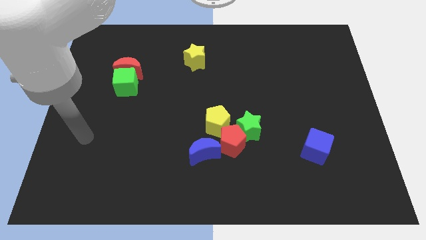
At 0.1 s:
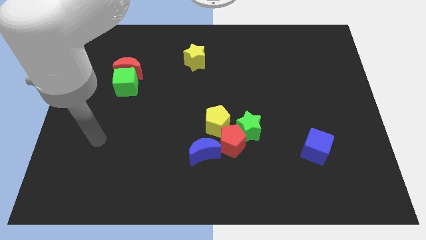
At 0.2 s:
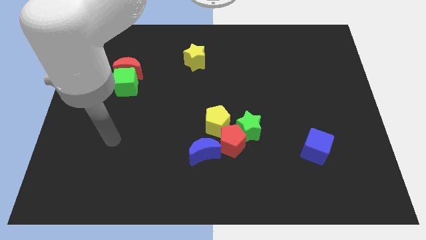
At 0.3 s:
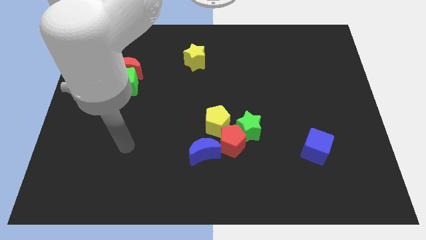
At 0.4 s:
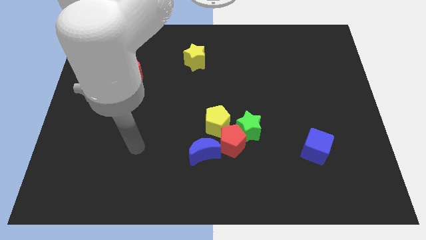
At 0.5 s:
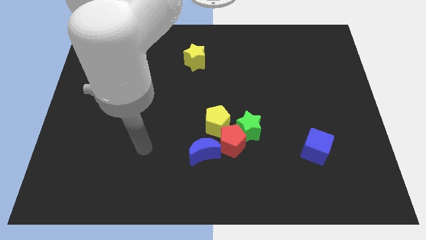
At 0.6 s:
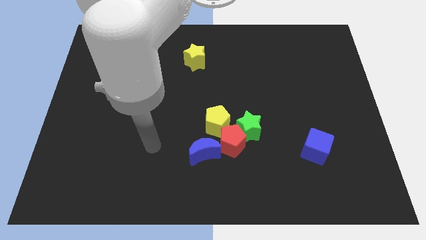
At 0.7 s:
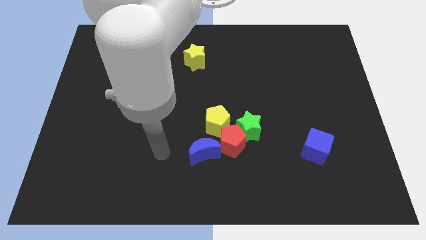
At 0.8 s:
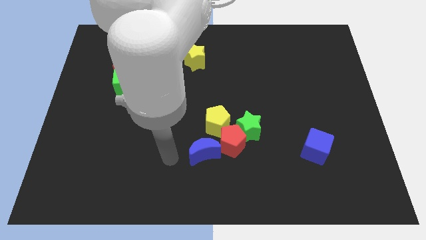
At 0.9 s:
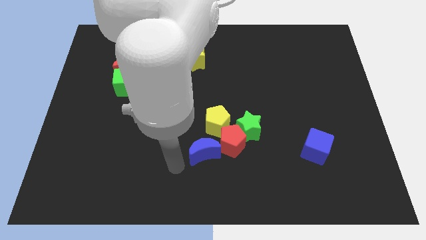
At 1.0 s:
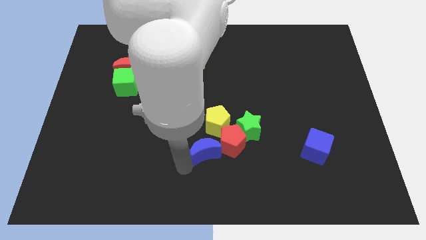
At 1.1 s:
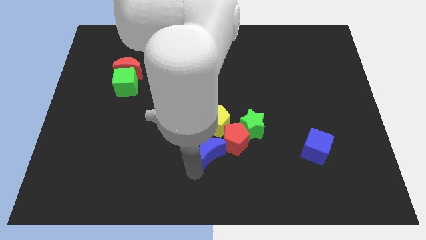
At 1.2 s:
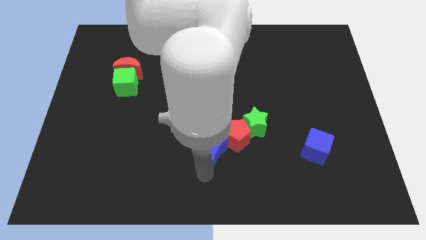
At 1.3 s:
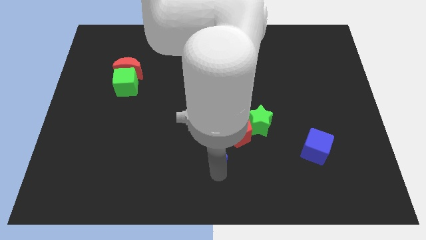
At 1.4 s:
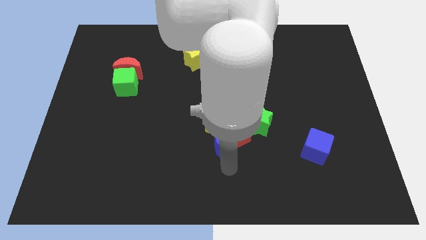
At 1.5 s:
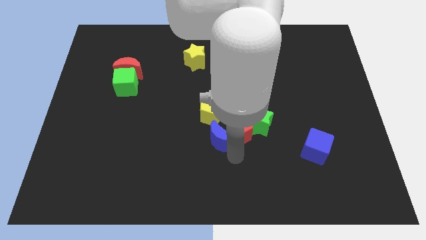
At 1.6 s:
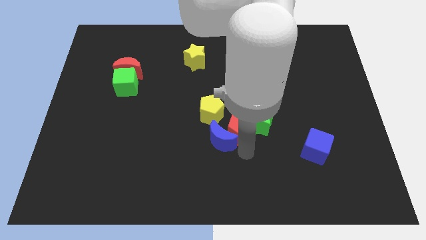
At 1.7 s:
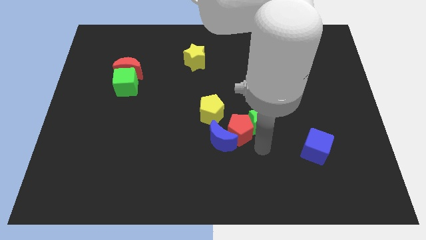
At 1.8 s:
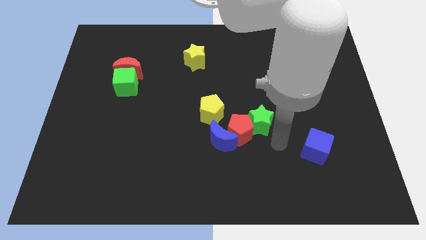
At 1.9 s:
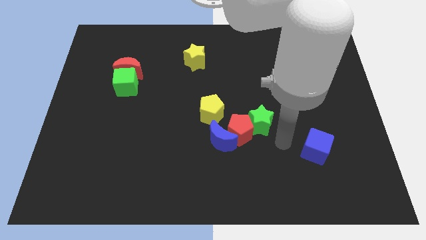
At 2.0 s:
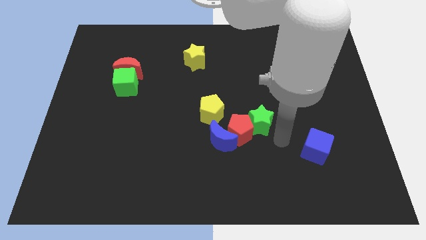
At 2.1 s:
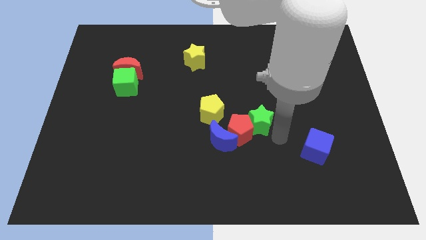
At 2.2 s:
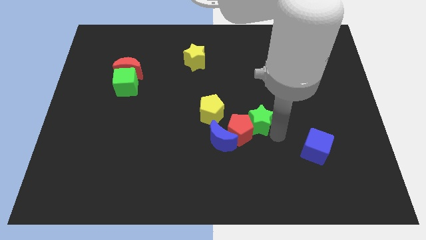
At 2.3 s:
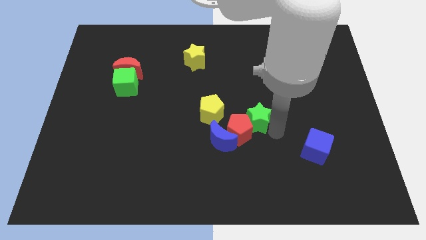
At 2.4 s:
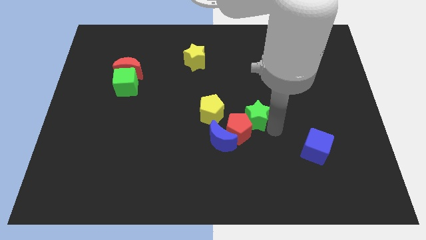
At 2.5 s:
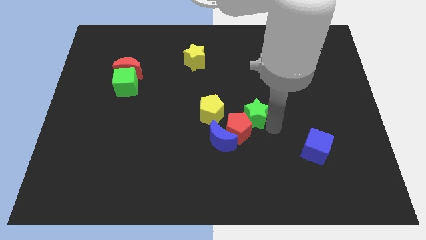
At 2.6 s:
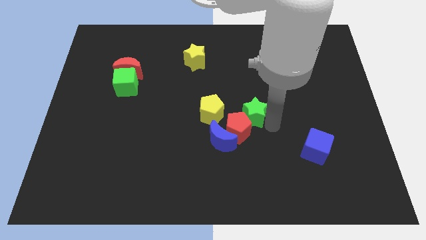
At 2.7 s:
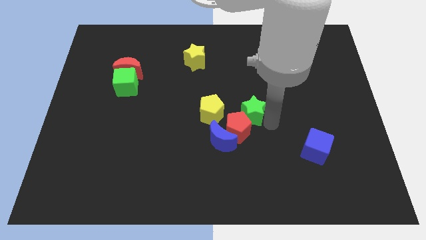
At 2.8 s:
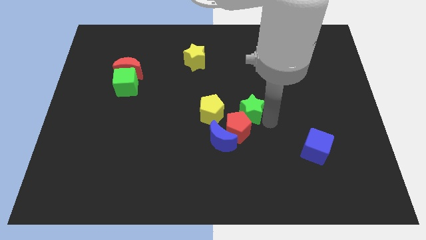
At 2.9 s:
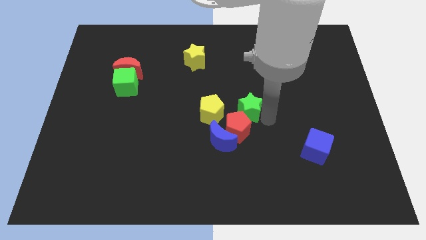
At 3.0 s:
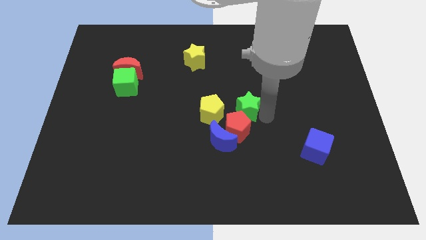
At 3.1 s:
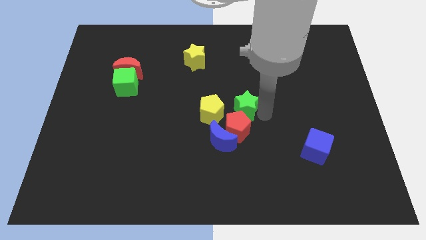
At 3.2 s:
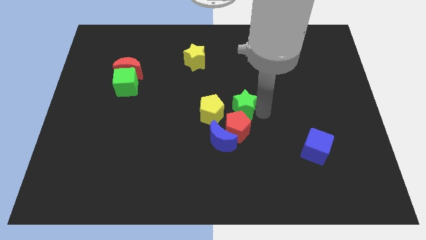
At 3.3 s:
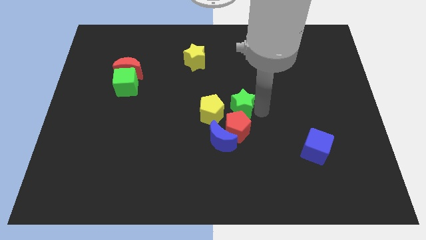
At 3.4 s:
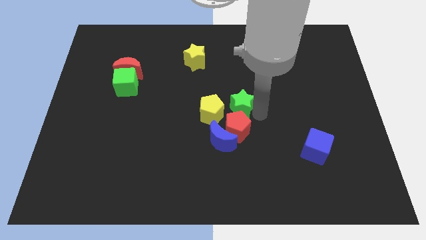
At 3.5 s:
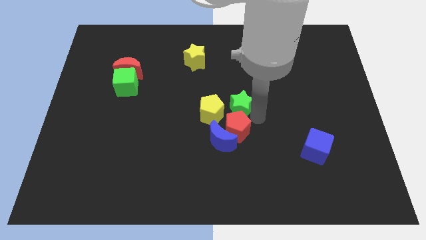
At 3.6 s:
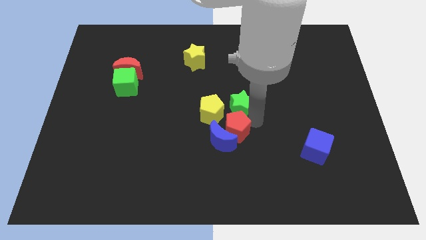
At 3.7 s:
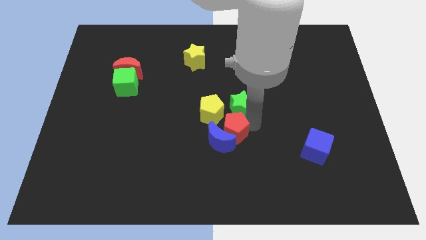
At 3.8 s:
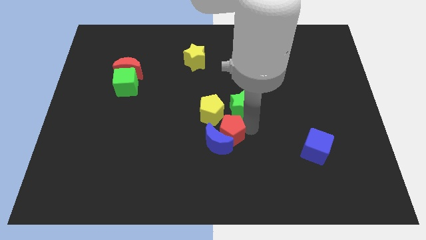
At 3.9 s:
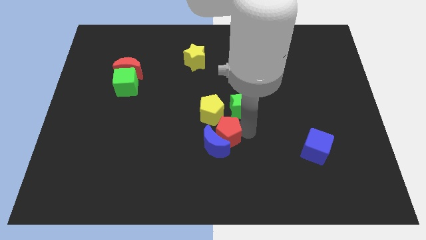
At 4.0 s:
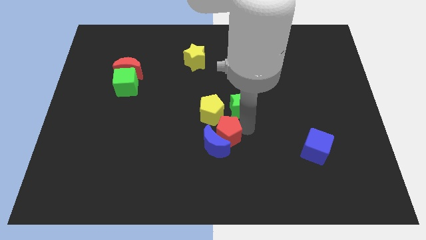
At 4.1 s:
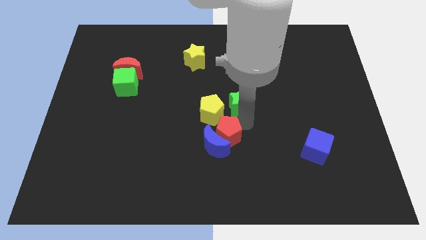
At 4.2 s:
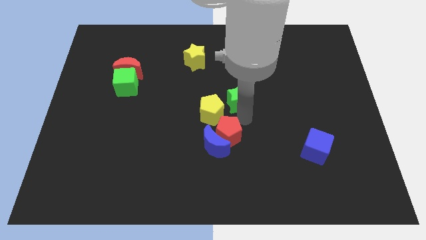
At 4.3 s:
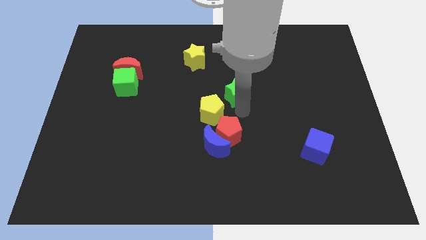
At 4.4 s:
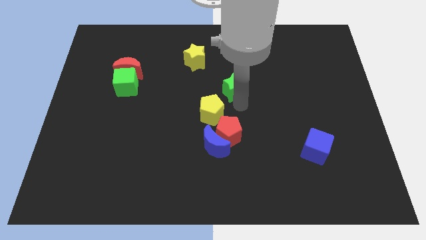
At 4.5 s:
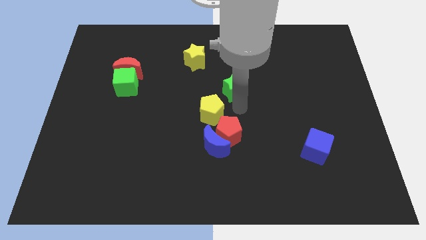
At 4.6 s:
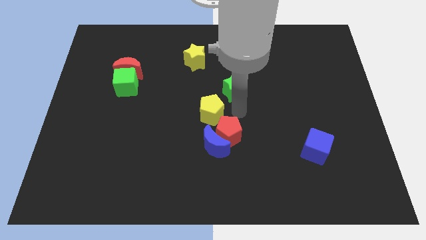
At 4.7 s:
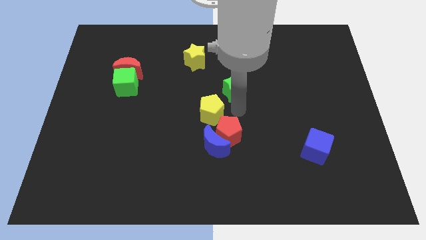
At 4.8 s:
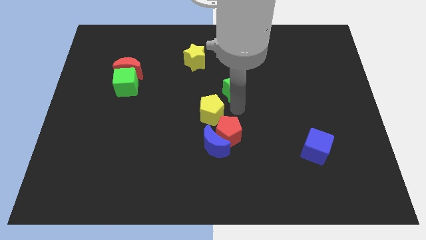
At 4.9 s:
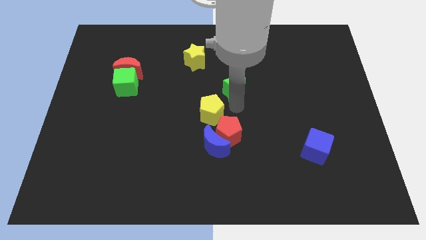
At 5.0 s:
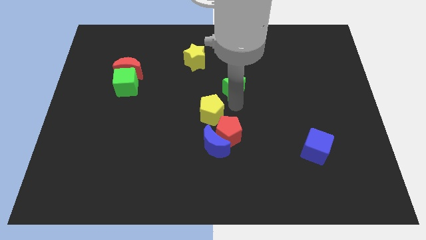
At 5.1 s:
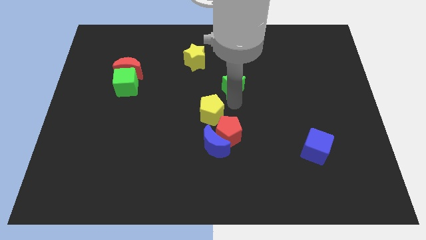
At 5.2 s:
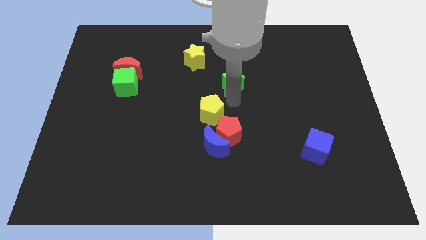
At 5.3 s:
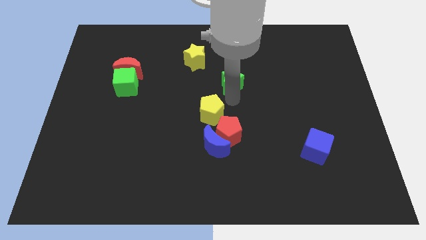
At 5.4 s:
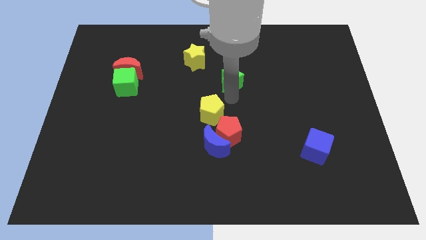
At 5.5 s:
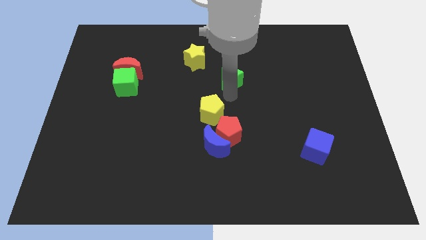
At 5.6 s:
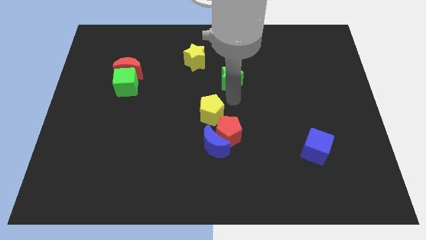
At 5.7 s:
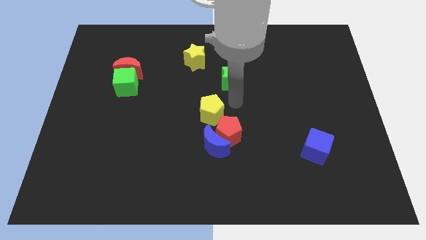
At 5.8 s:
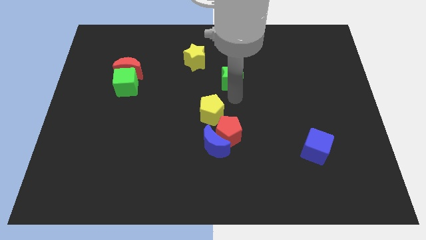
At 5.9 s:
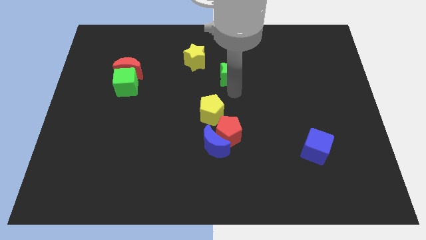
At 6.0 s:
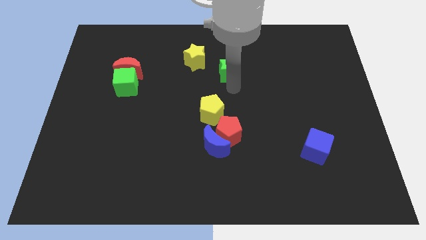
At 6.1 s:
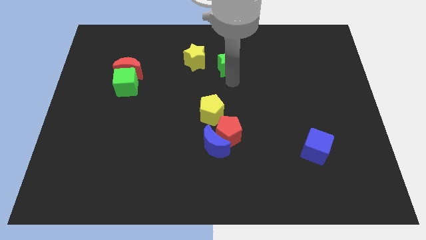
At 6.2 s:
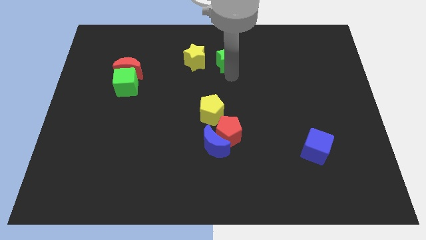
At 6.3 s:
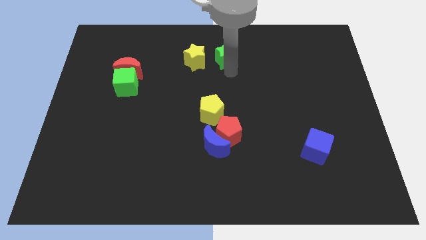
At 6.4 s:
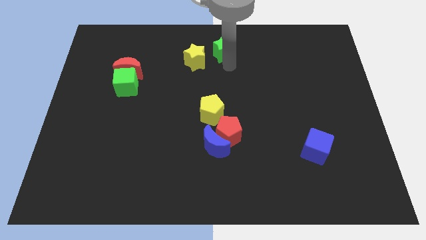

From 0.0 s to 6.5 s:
push the green star to the top side
